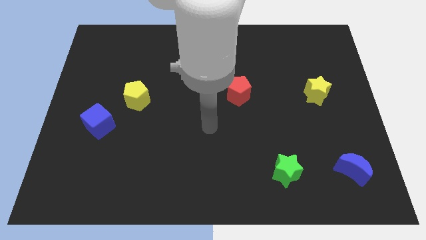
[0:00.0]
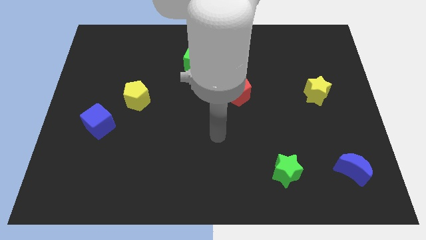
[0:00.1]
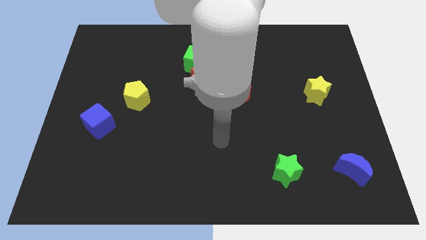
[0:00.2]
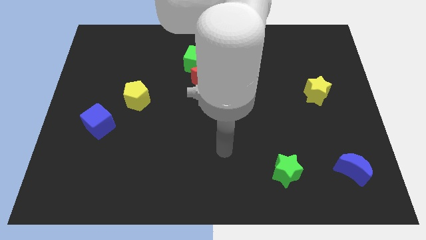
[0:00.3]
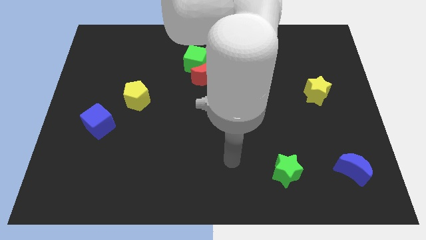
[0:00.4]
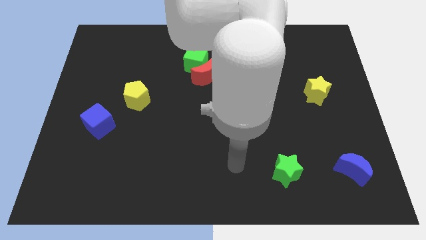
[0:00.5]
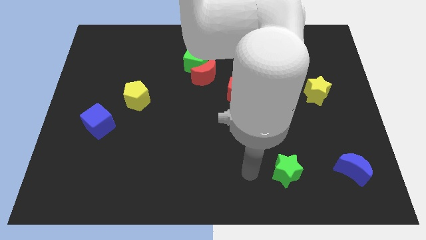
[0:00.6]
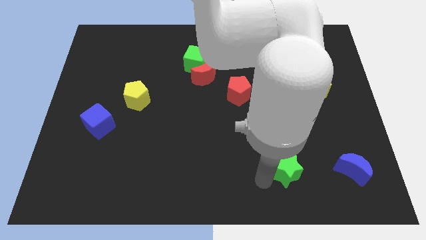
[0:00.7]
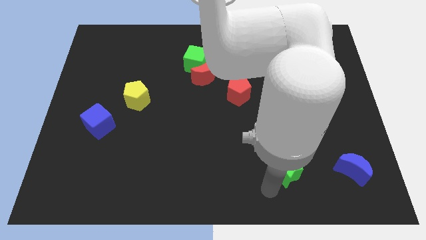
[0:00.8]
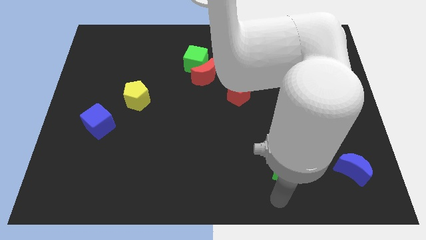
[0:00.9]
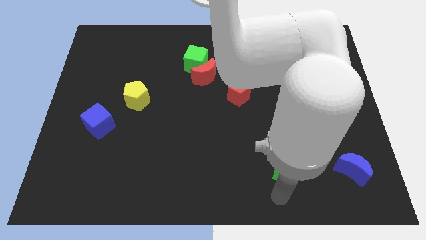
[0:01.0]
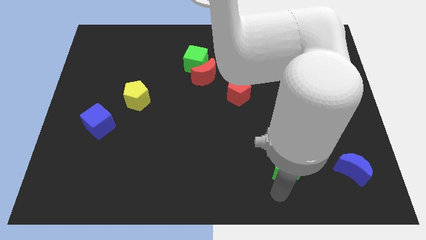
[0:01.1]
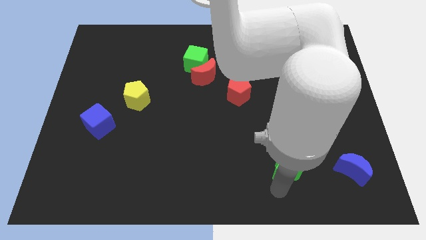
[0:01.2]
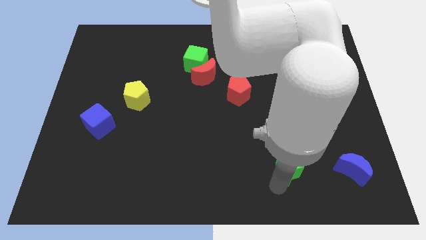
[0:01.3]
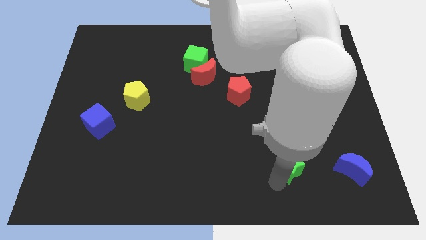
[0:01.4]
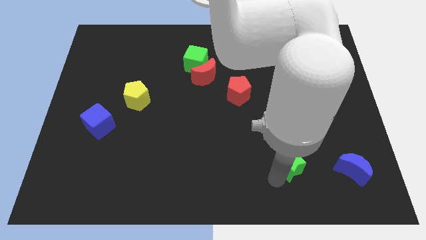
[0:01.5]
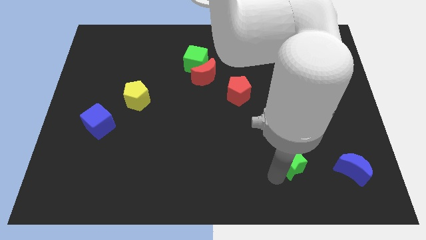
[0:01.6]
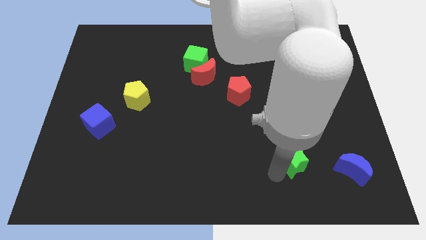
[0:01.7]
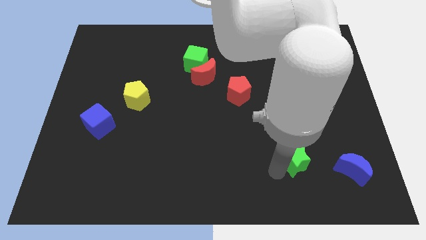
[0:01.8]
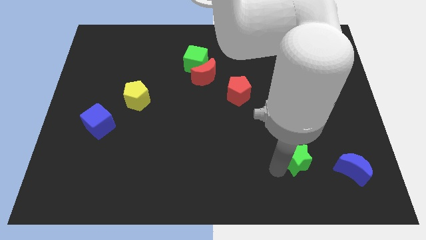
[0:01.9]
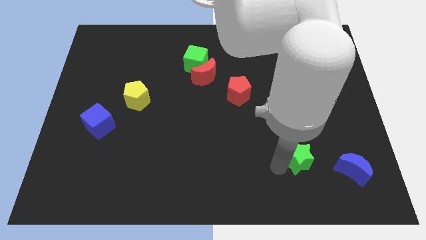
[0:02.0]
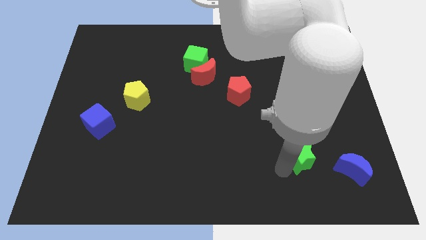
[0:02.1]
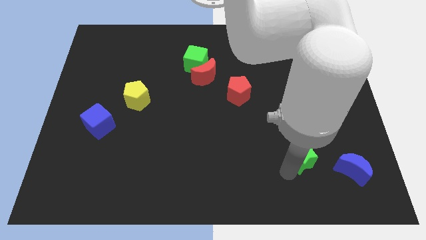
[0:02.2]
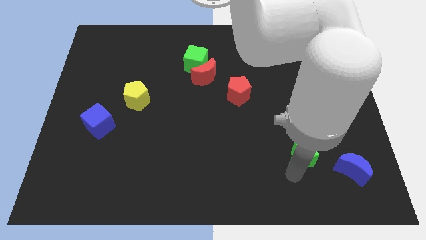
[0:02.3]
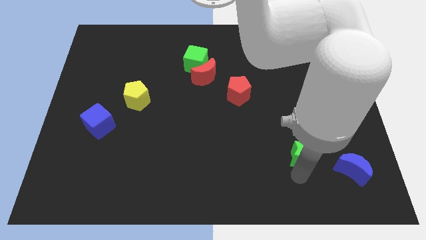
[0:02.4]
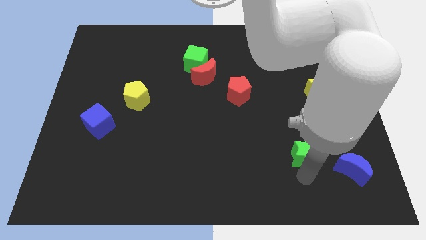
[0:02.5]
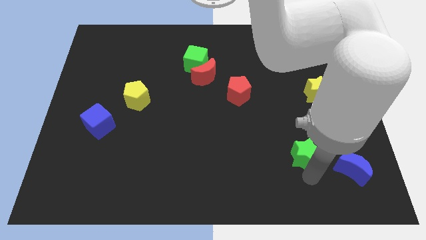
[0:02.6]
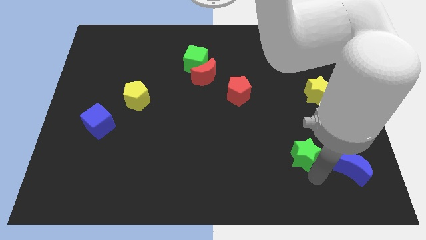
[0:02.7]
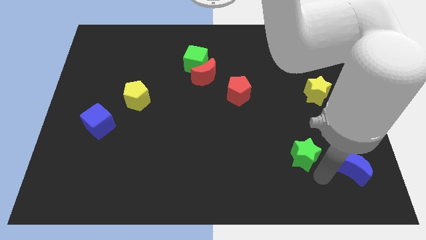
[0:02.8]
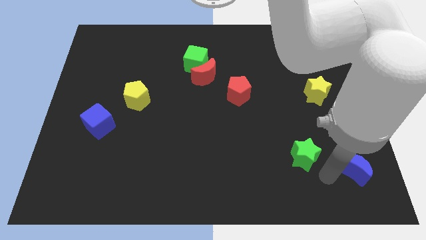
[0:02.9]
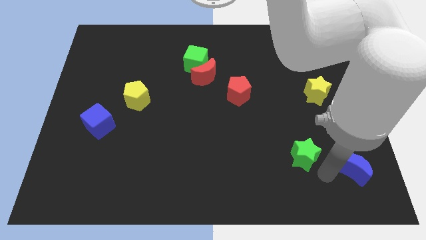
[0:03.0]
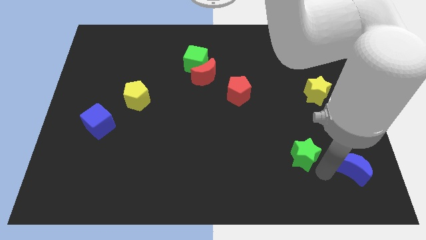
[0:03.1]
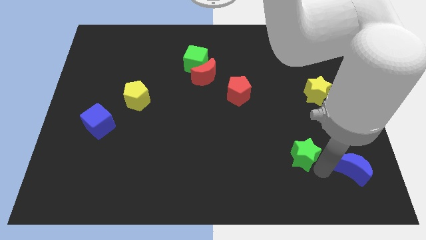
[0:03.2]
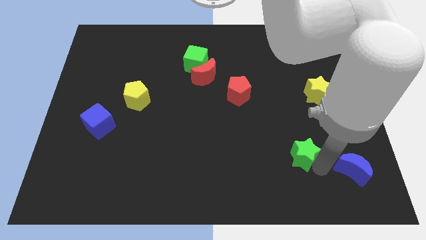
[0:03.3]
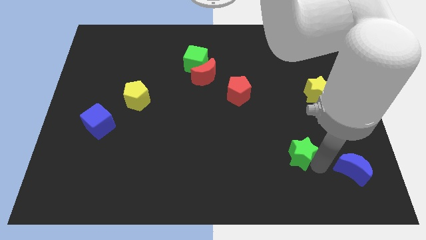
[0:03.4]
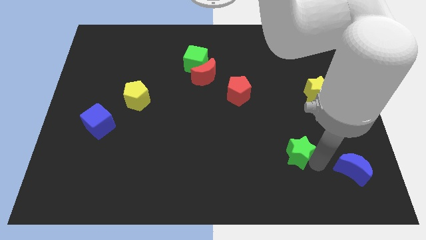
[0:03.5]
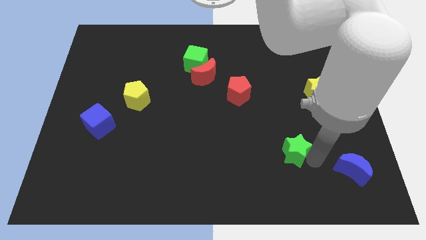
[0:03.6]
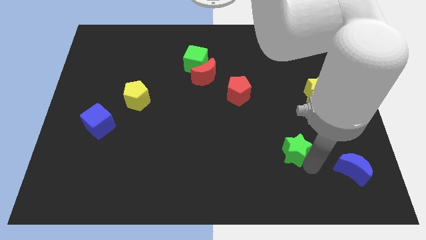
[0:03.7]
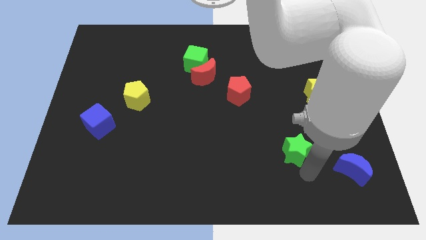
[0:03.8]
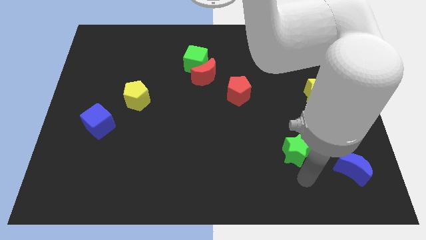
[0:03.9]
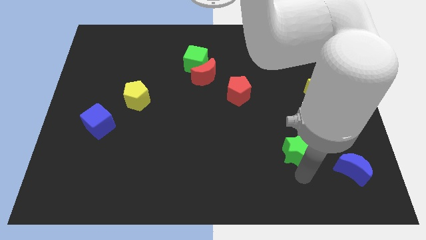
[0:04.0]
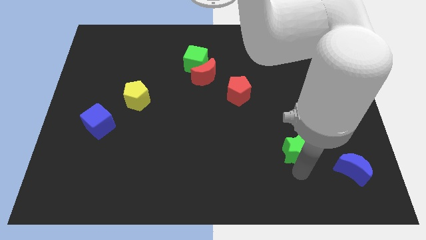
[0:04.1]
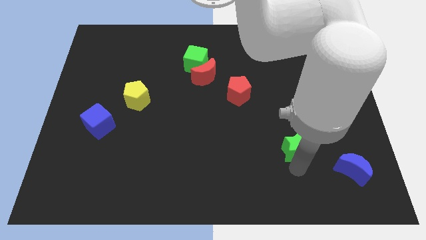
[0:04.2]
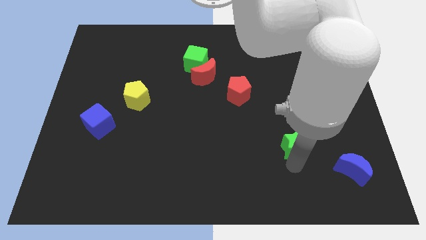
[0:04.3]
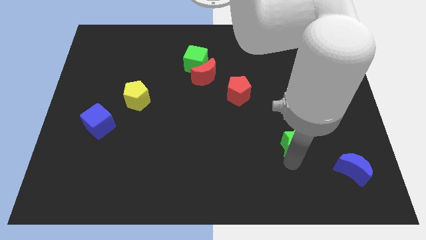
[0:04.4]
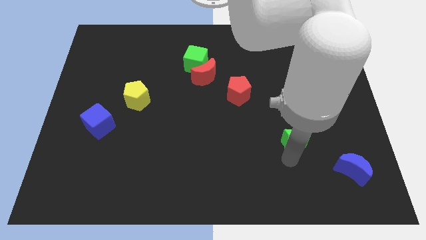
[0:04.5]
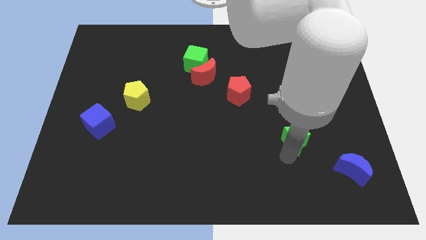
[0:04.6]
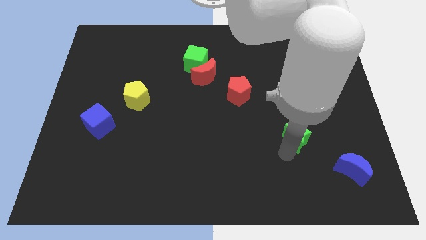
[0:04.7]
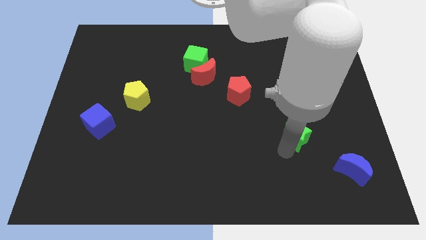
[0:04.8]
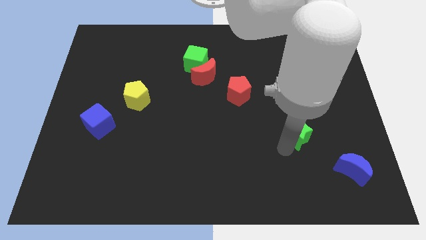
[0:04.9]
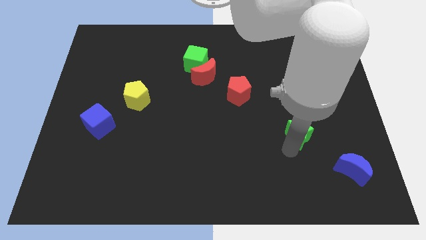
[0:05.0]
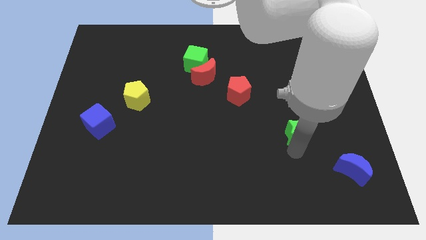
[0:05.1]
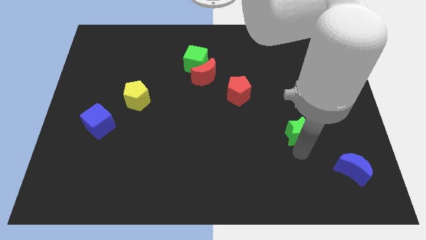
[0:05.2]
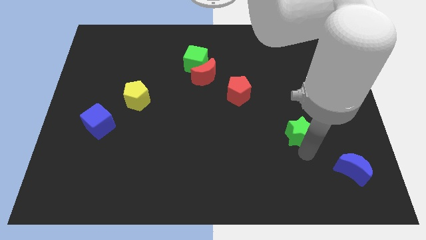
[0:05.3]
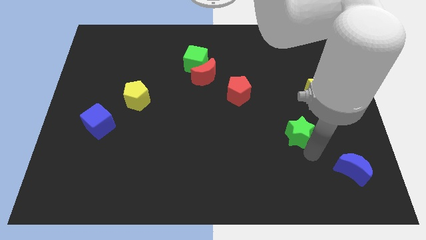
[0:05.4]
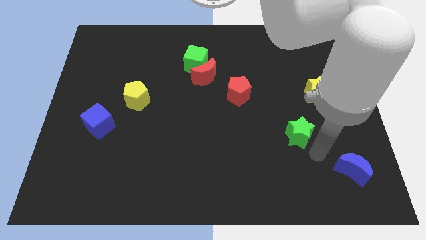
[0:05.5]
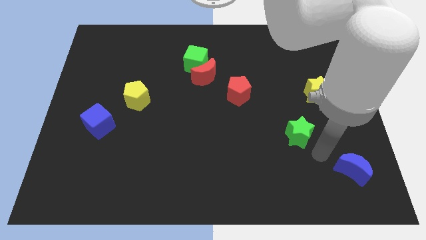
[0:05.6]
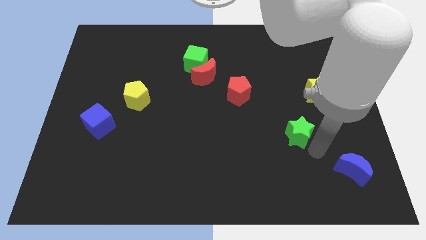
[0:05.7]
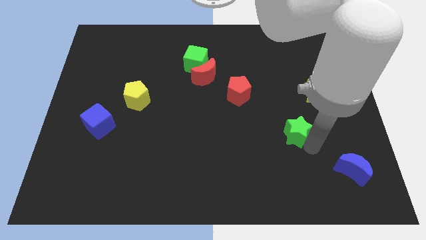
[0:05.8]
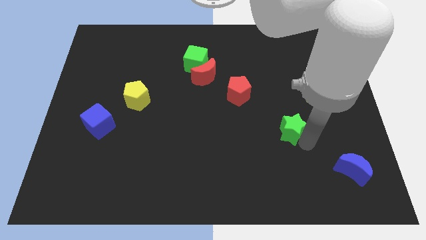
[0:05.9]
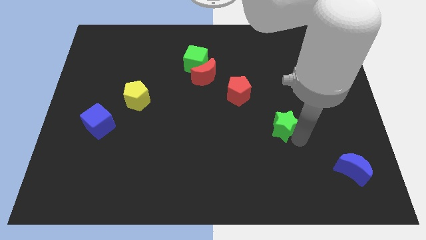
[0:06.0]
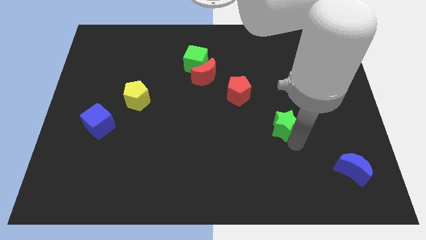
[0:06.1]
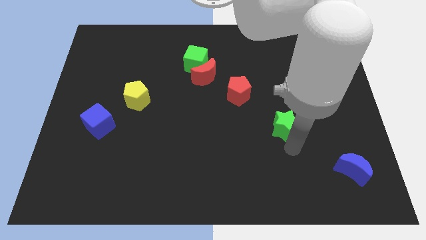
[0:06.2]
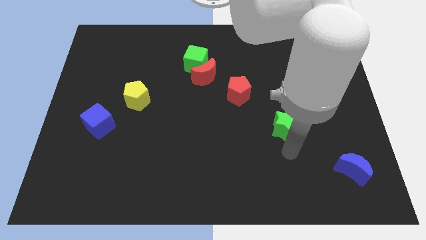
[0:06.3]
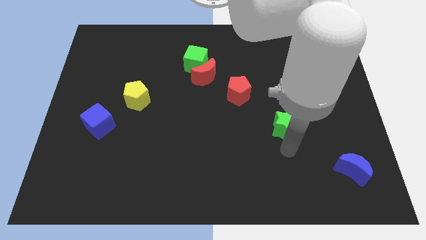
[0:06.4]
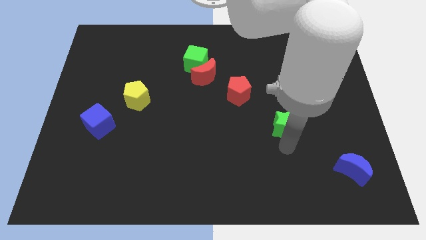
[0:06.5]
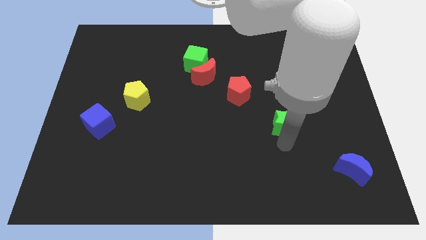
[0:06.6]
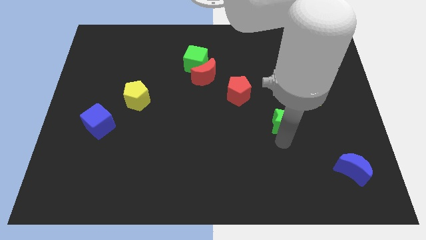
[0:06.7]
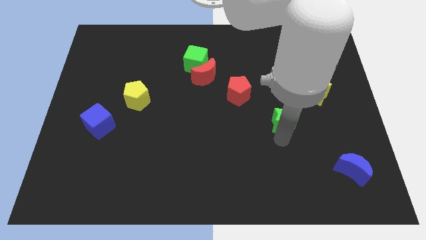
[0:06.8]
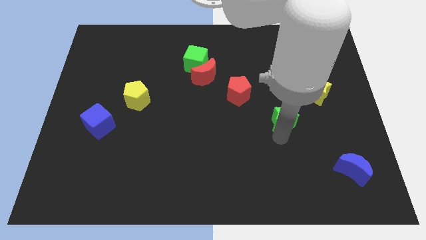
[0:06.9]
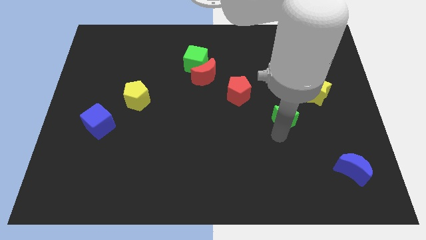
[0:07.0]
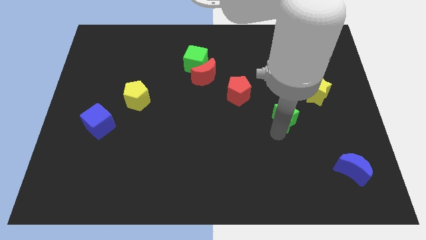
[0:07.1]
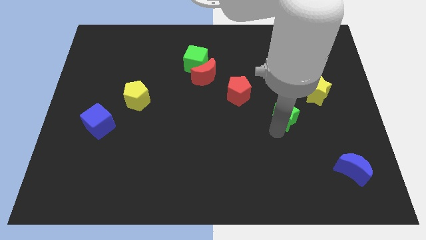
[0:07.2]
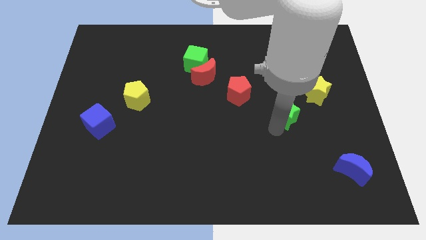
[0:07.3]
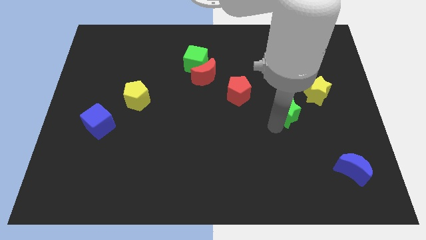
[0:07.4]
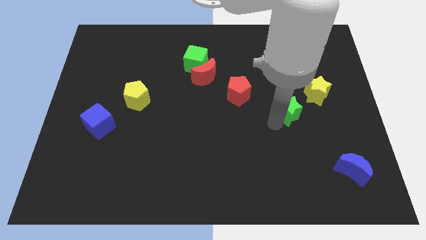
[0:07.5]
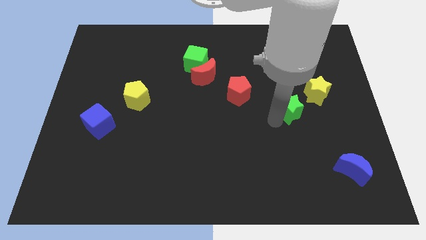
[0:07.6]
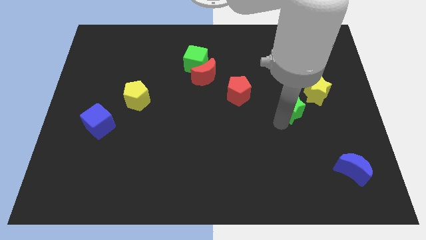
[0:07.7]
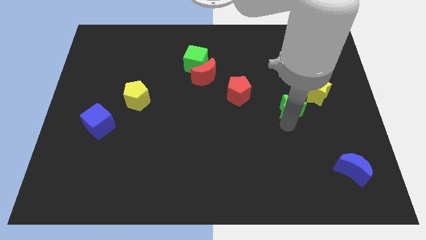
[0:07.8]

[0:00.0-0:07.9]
slide the green star just left of the yellow star
